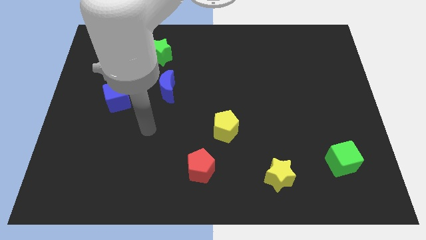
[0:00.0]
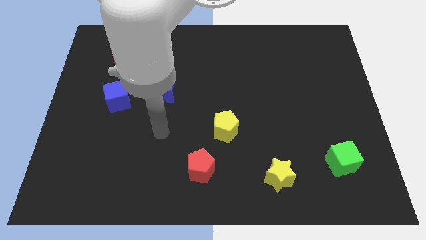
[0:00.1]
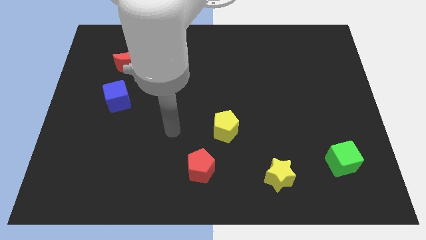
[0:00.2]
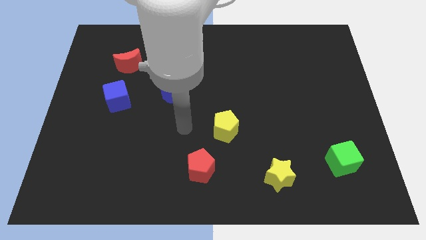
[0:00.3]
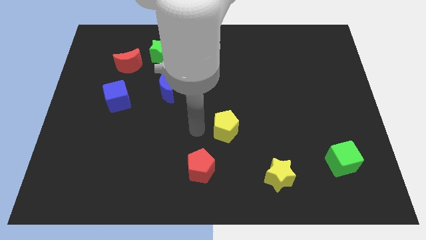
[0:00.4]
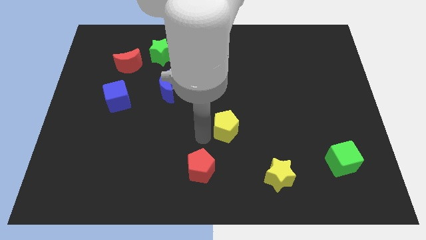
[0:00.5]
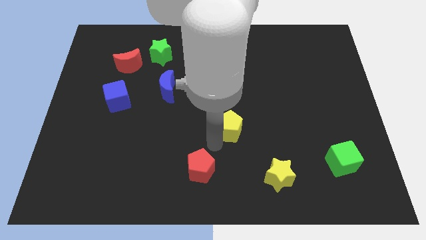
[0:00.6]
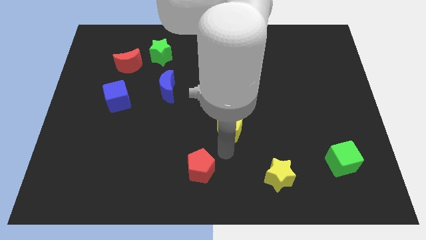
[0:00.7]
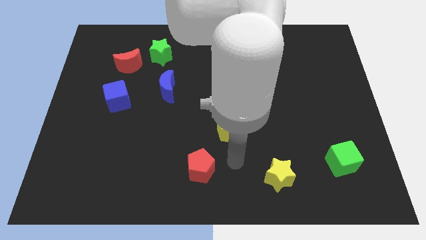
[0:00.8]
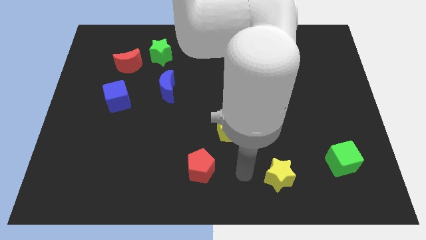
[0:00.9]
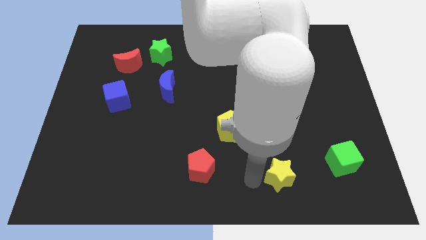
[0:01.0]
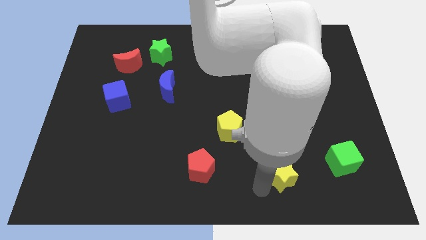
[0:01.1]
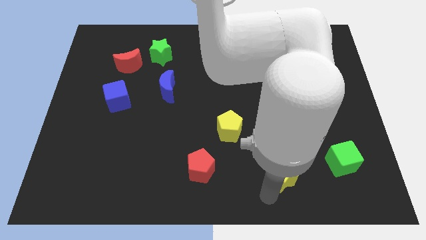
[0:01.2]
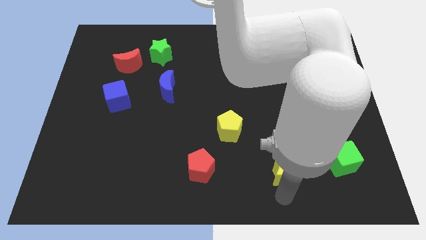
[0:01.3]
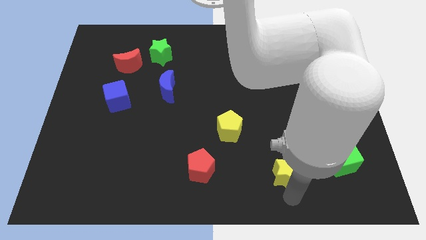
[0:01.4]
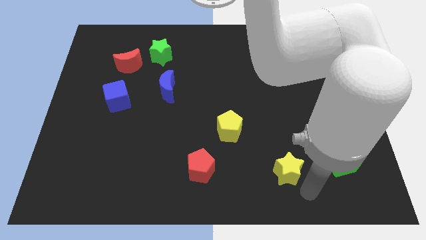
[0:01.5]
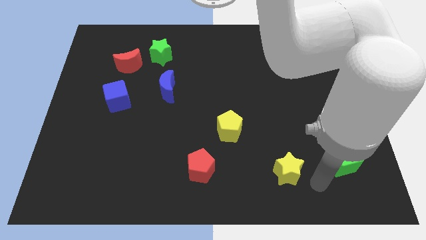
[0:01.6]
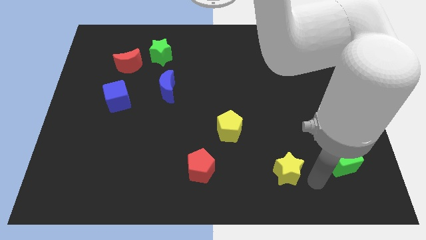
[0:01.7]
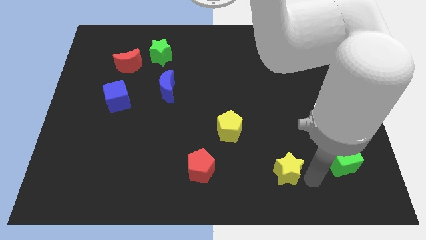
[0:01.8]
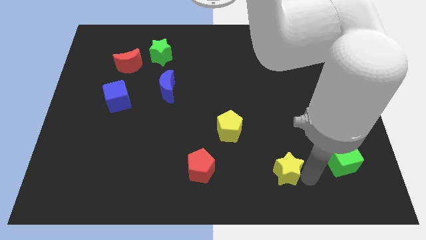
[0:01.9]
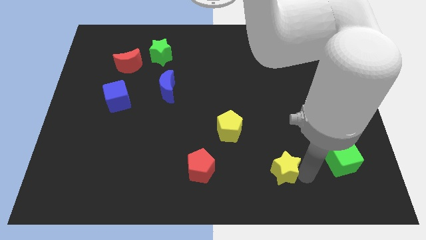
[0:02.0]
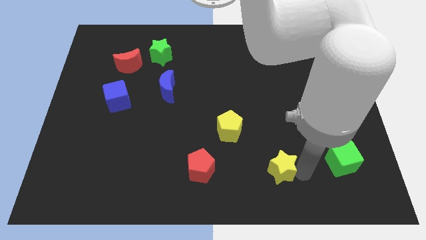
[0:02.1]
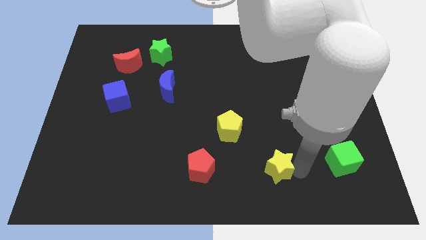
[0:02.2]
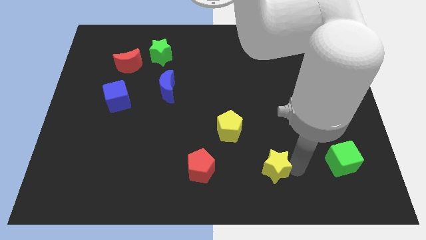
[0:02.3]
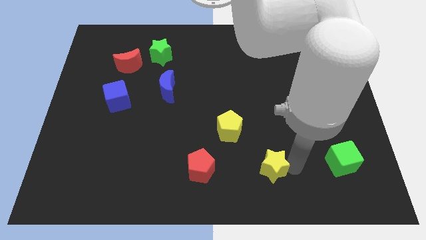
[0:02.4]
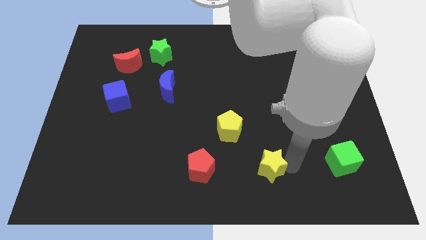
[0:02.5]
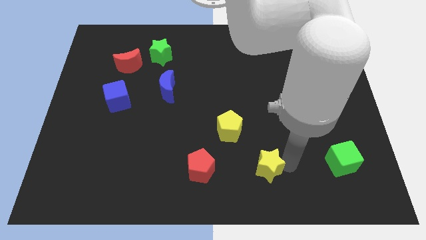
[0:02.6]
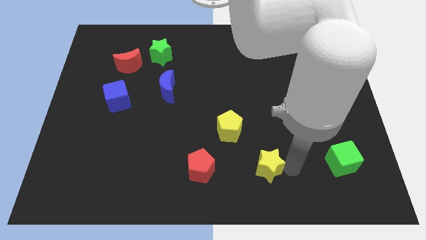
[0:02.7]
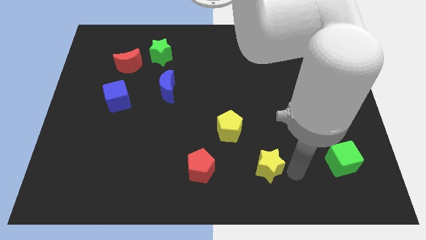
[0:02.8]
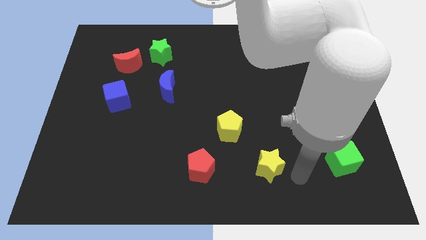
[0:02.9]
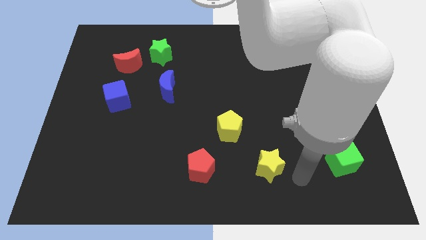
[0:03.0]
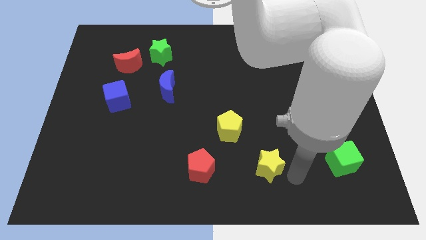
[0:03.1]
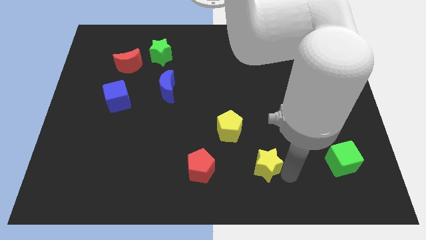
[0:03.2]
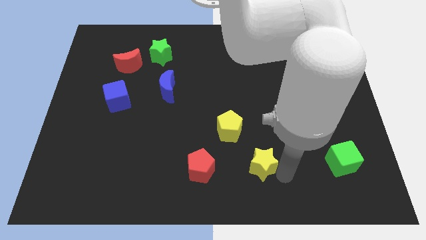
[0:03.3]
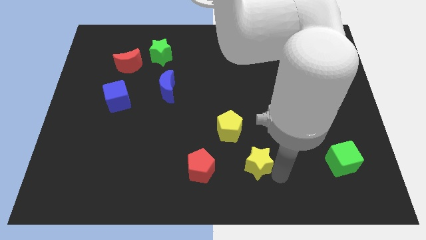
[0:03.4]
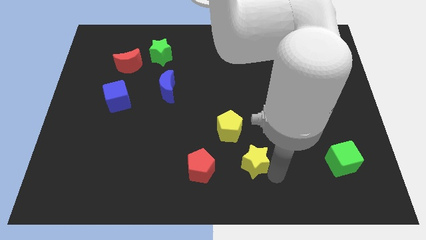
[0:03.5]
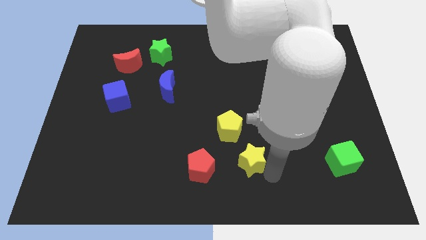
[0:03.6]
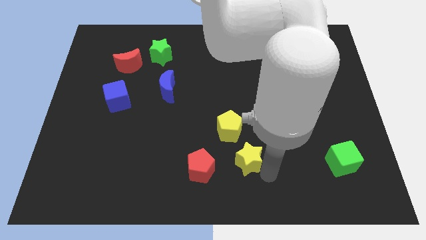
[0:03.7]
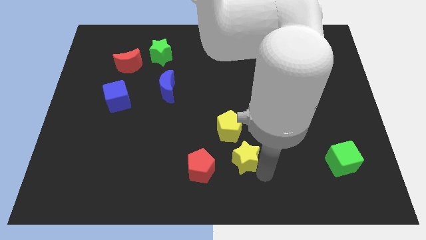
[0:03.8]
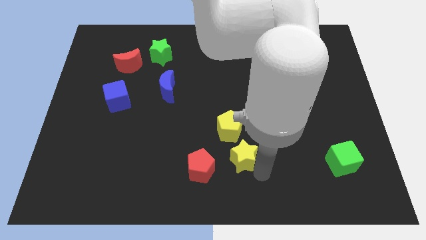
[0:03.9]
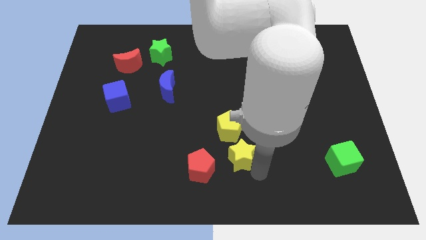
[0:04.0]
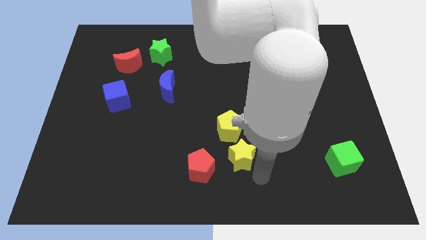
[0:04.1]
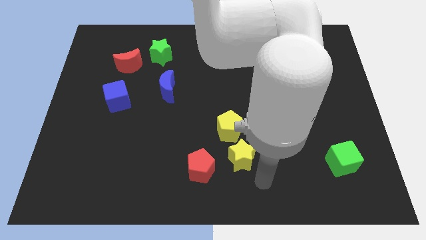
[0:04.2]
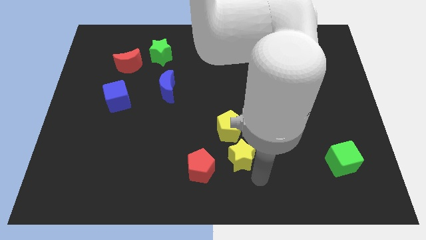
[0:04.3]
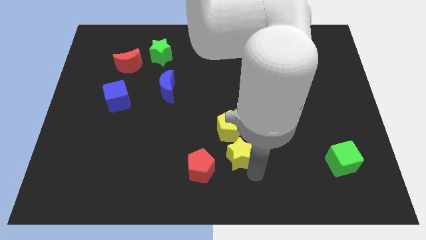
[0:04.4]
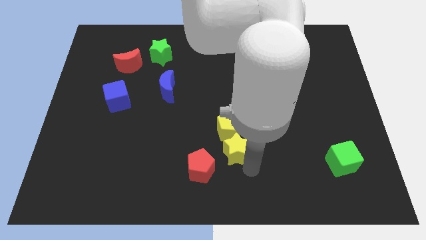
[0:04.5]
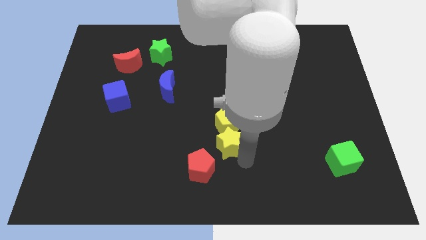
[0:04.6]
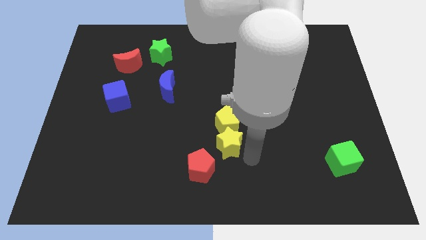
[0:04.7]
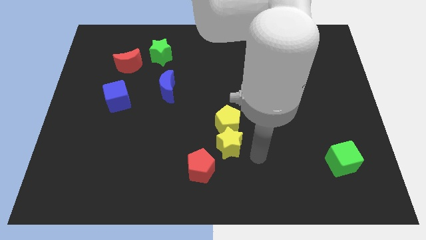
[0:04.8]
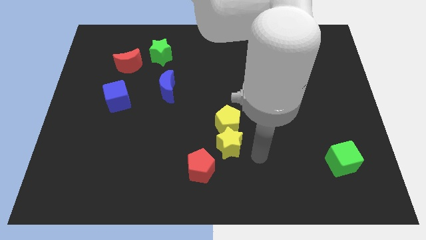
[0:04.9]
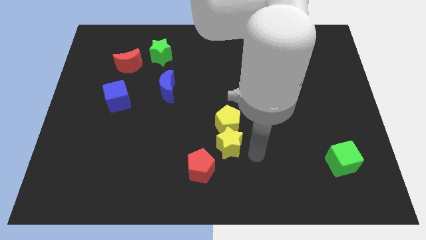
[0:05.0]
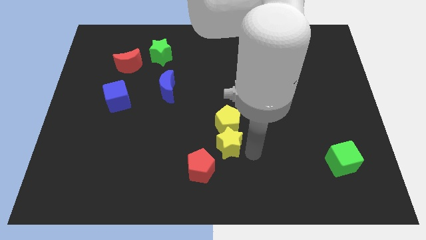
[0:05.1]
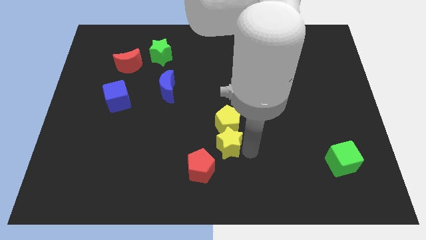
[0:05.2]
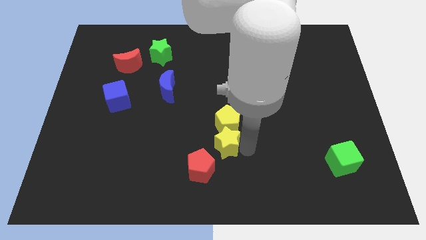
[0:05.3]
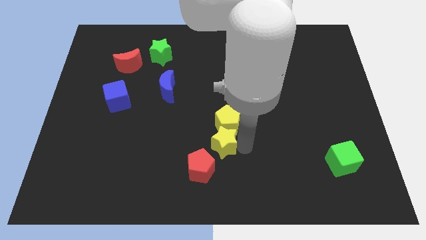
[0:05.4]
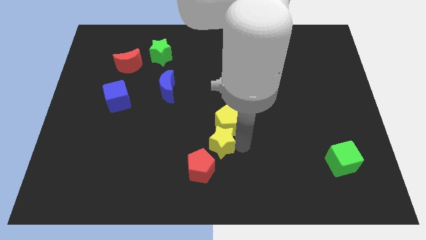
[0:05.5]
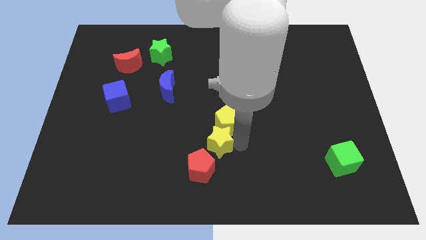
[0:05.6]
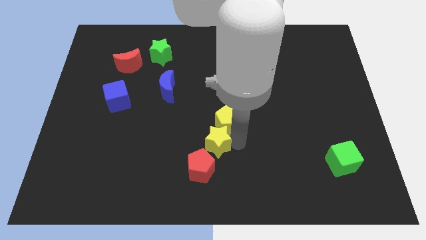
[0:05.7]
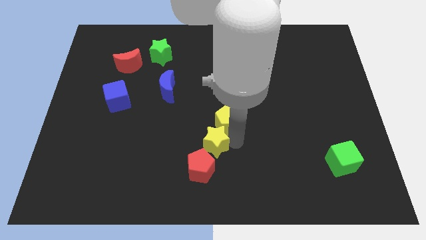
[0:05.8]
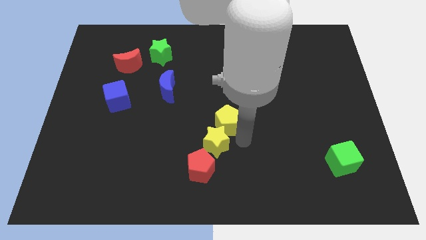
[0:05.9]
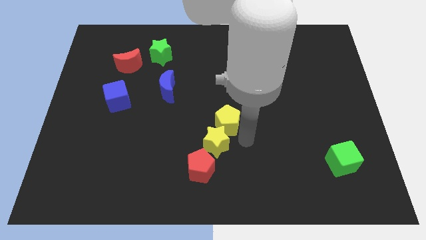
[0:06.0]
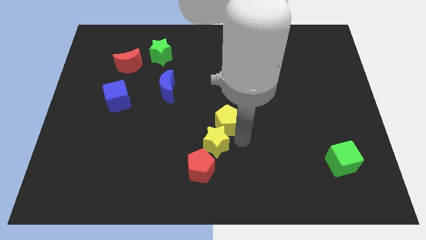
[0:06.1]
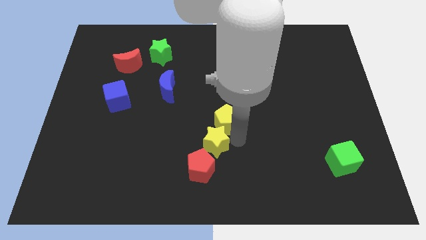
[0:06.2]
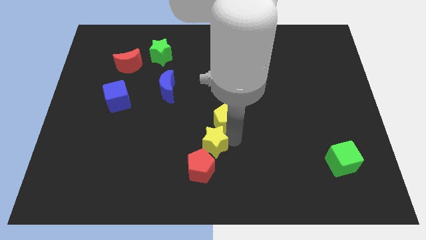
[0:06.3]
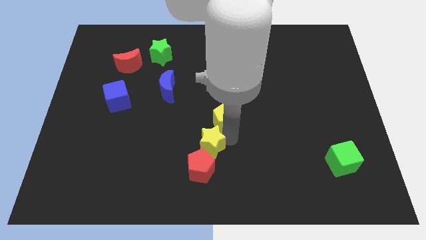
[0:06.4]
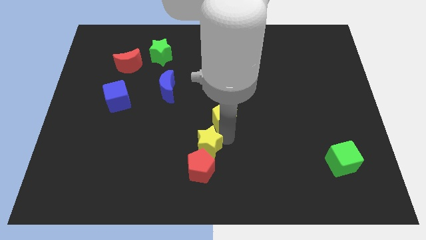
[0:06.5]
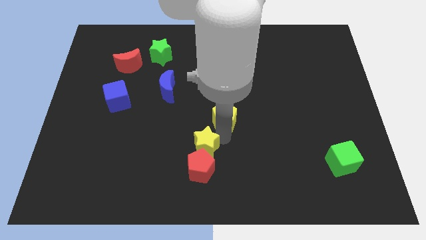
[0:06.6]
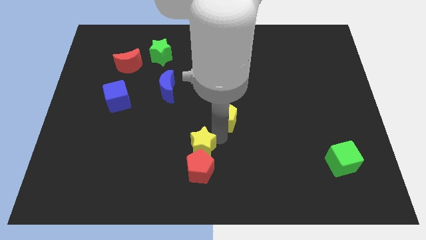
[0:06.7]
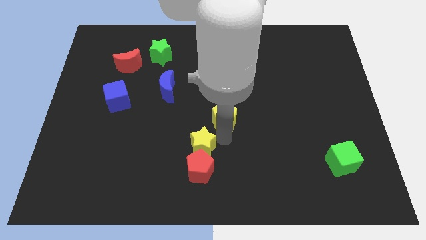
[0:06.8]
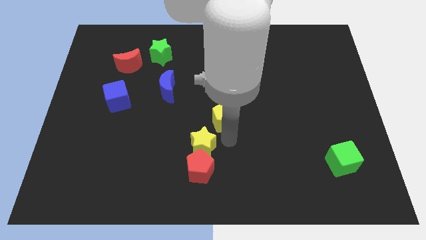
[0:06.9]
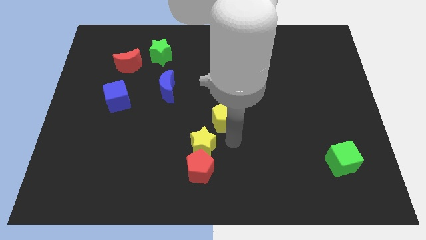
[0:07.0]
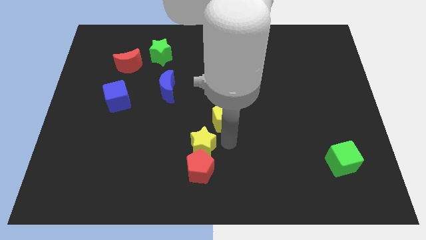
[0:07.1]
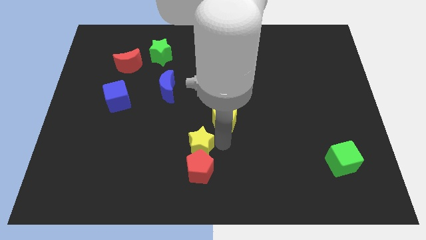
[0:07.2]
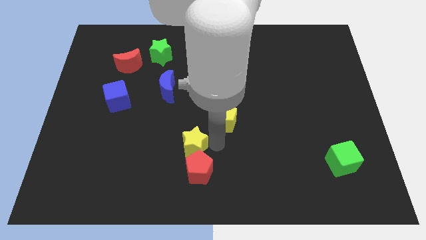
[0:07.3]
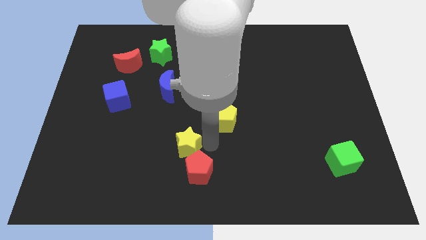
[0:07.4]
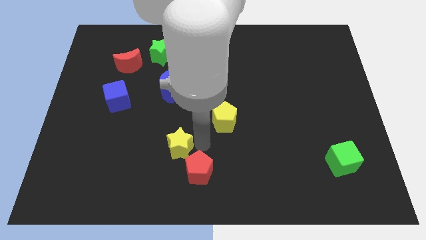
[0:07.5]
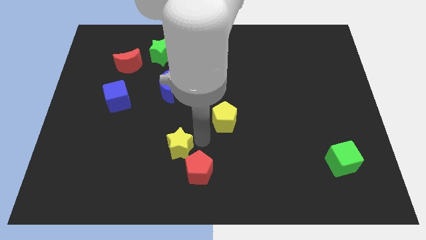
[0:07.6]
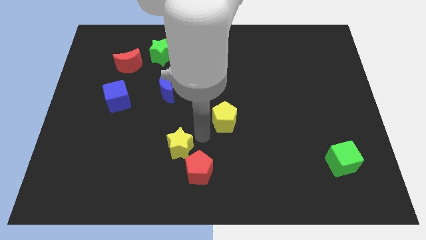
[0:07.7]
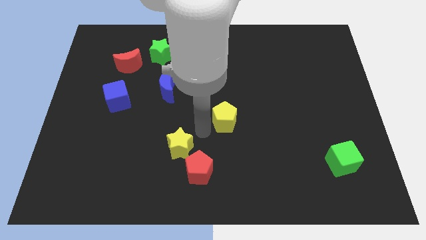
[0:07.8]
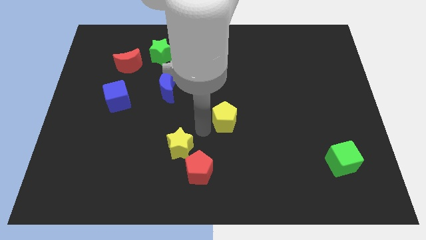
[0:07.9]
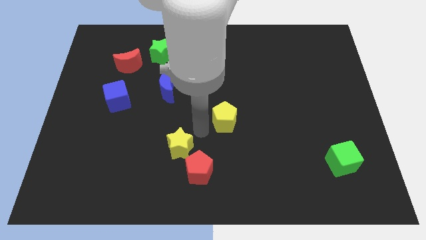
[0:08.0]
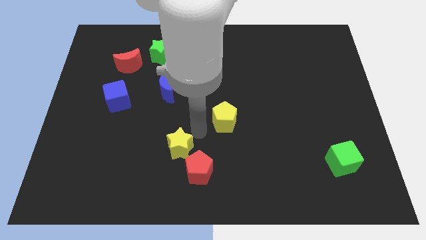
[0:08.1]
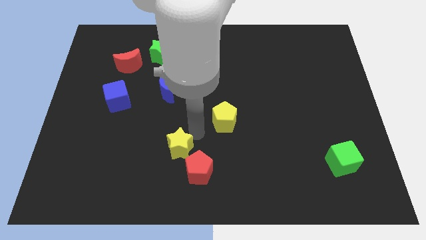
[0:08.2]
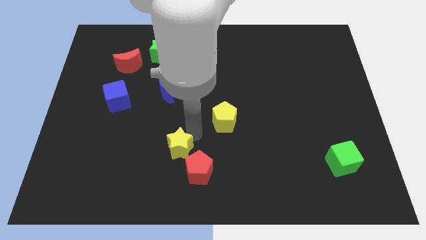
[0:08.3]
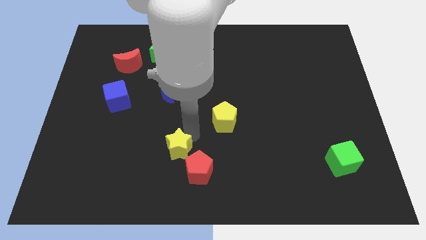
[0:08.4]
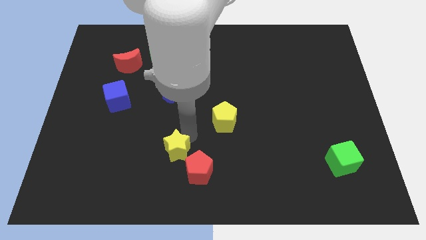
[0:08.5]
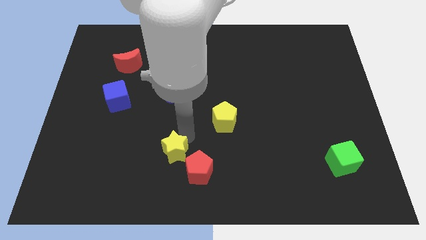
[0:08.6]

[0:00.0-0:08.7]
slide the yellow star to the left side of the red pentagon
